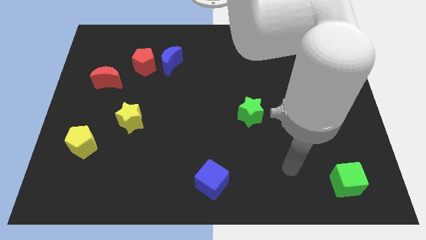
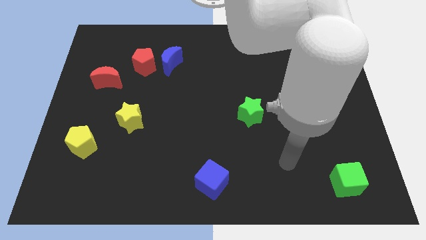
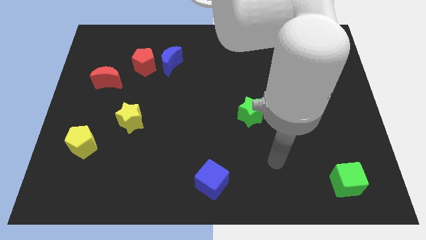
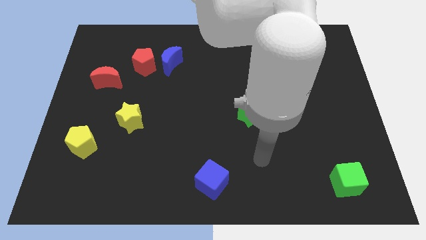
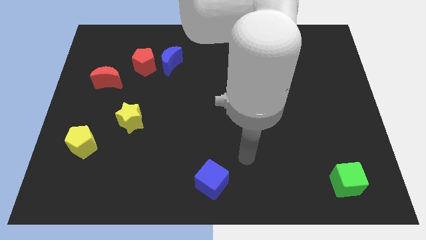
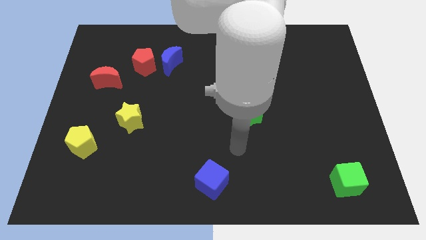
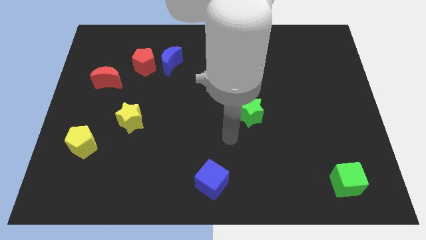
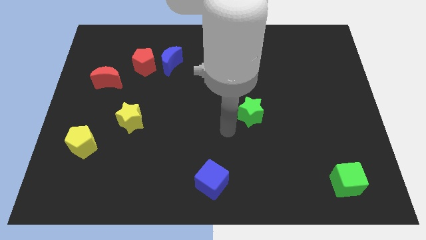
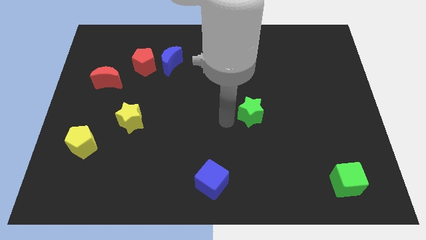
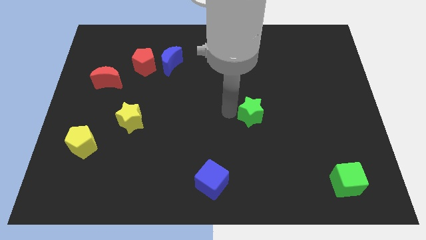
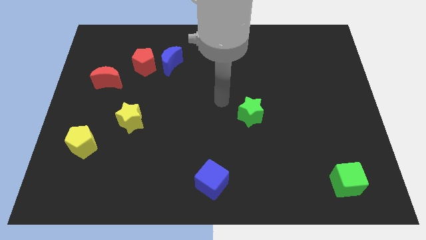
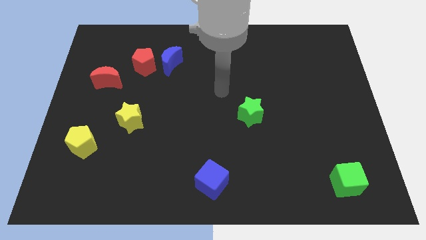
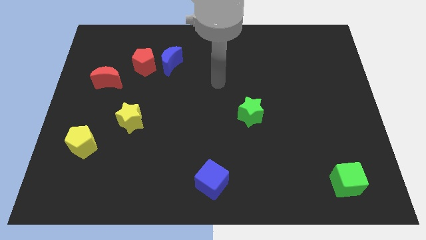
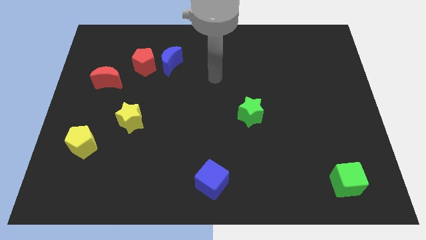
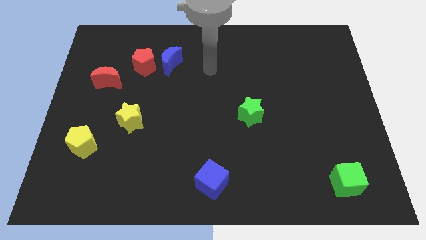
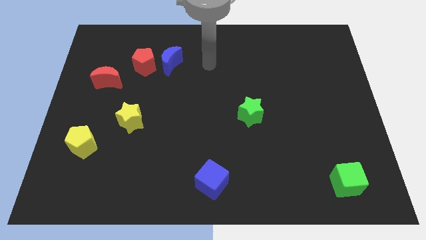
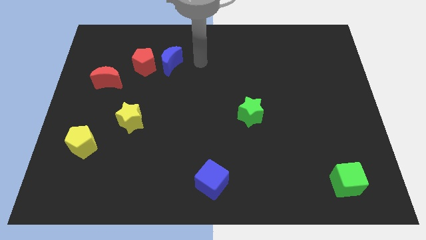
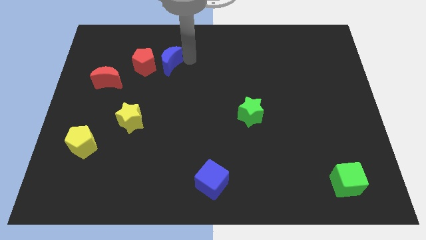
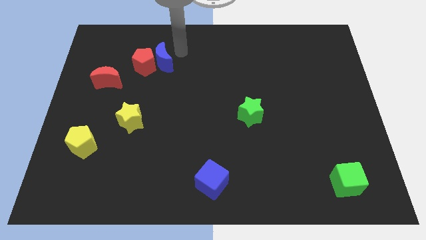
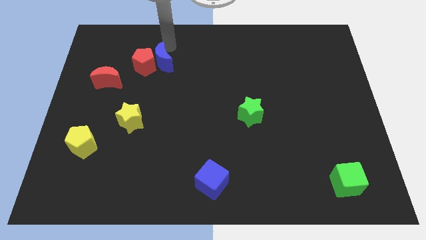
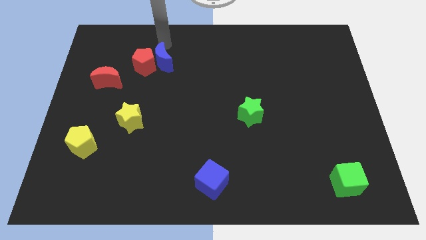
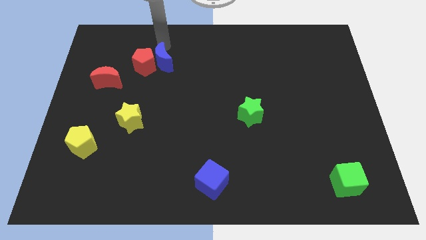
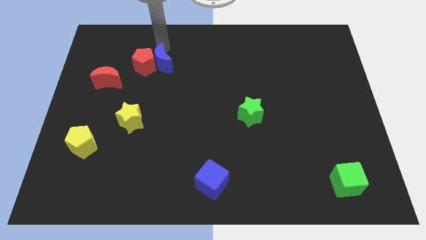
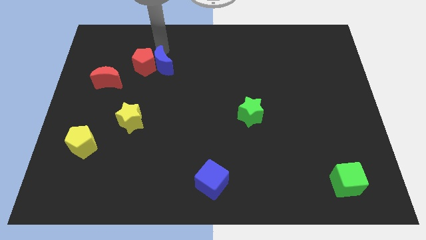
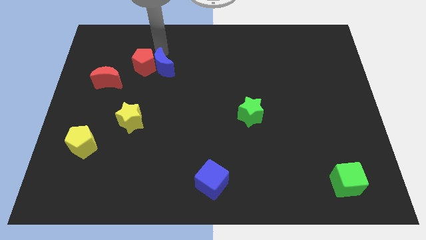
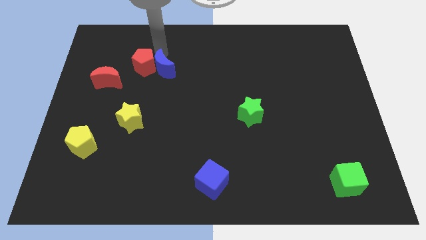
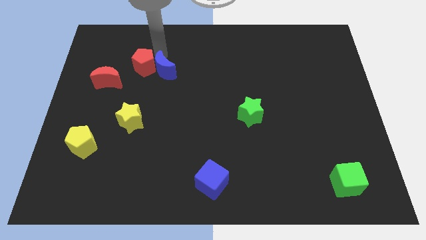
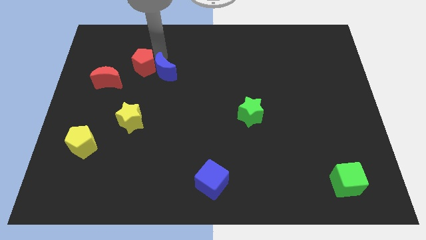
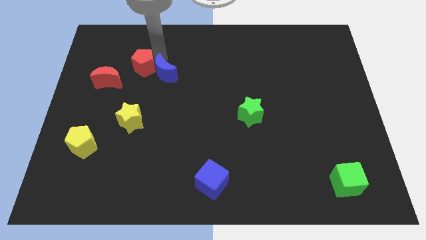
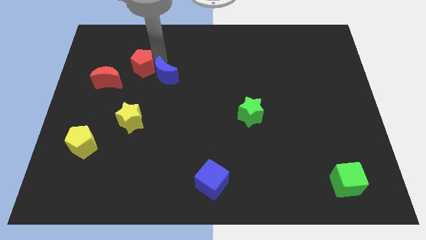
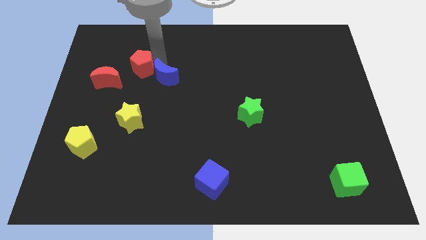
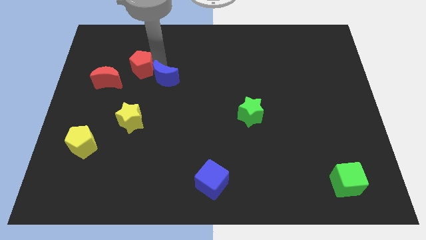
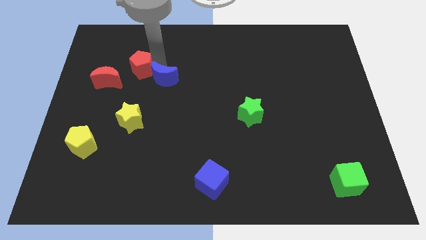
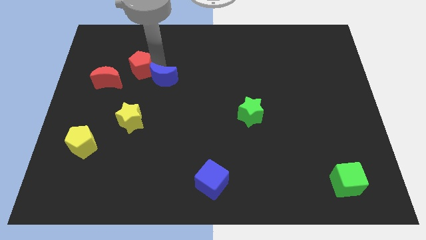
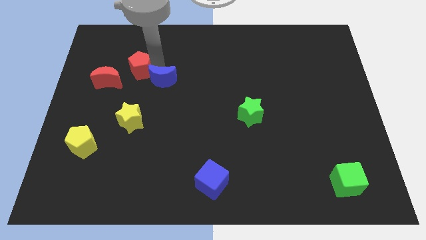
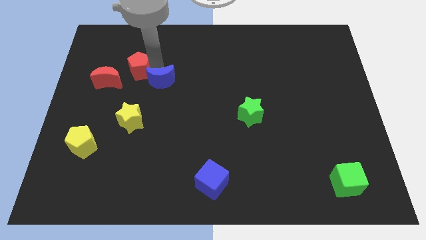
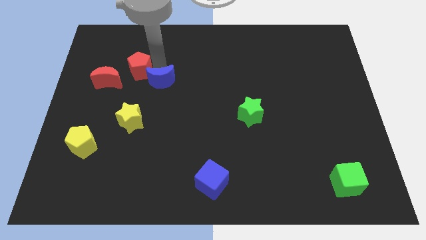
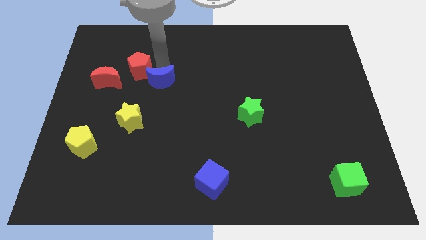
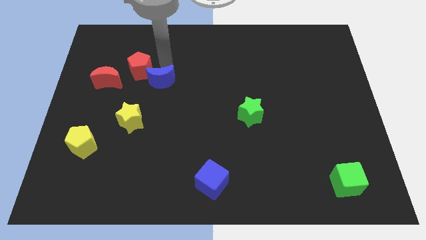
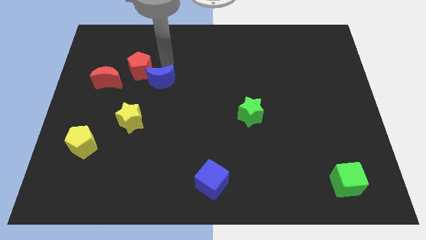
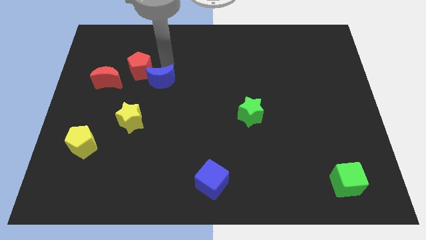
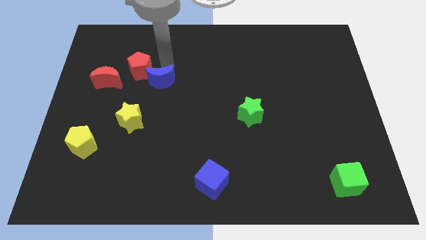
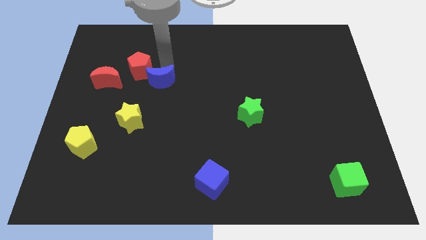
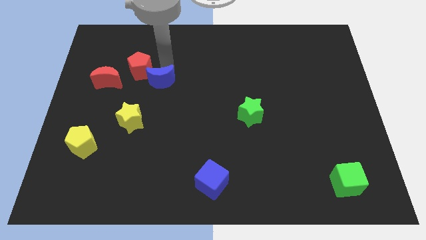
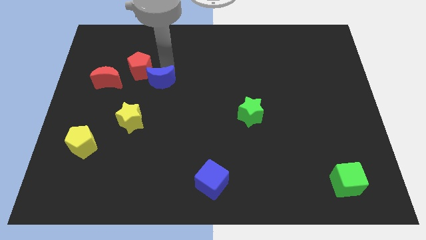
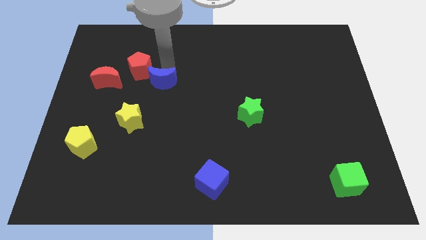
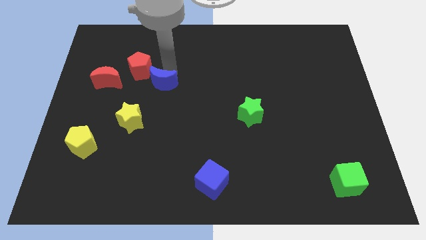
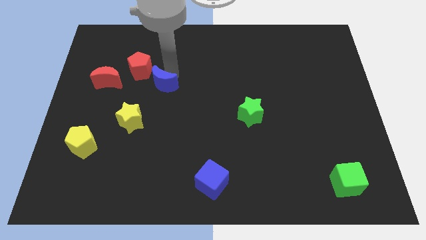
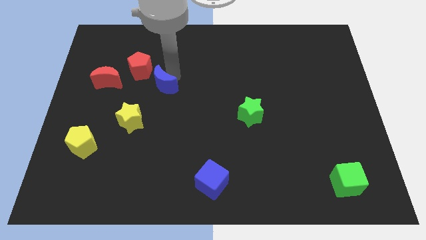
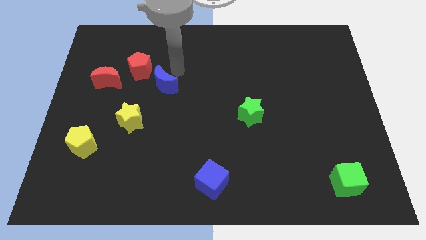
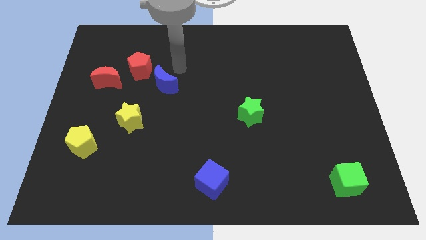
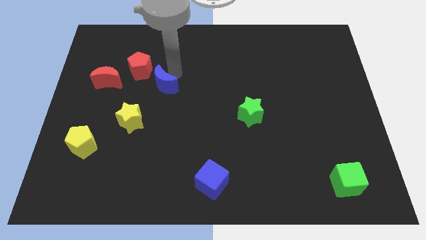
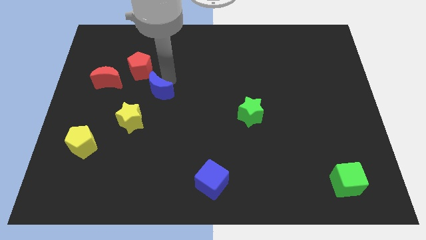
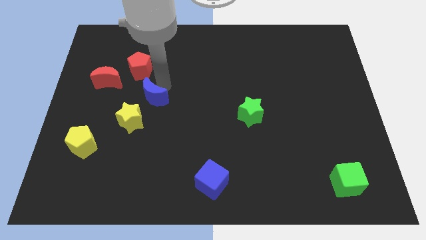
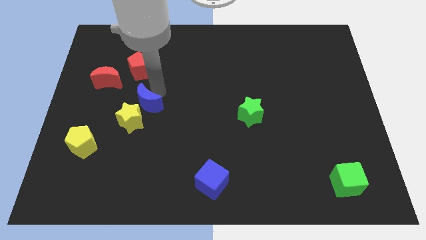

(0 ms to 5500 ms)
push the blue moon towards the yellow star
